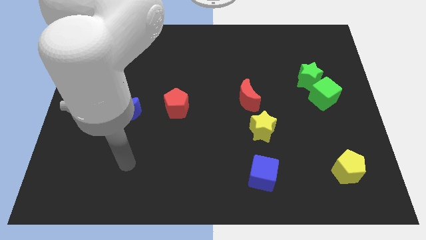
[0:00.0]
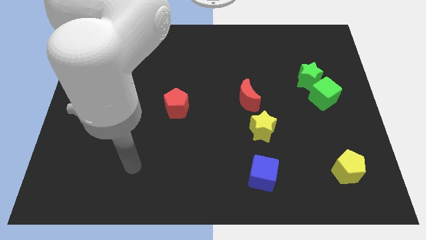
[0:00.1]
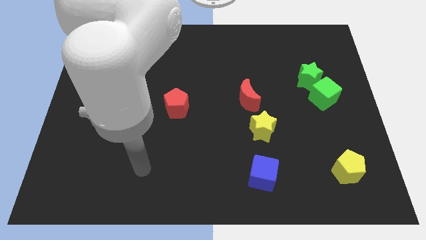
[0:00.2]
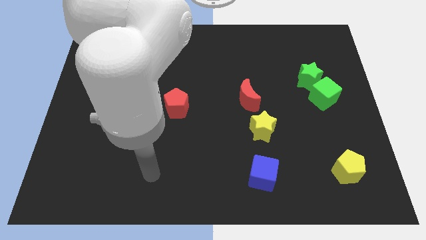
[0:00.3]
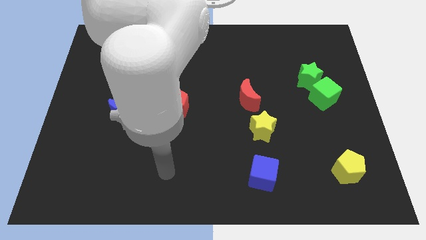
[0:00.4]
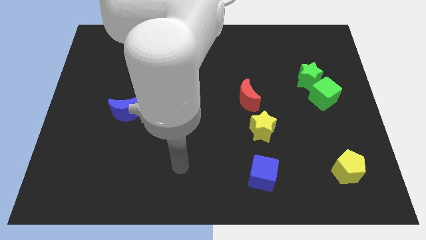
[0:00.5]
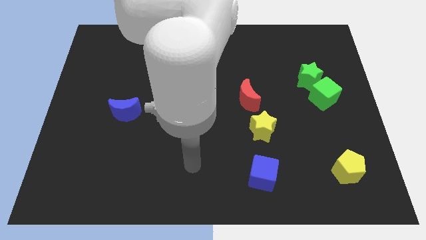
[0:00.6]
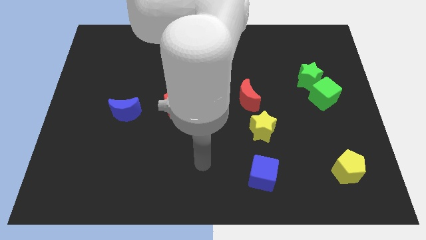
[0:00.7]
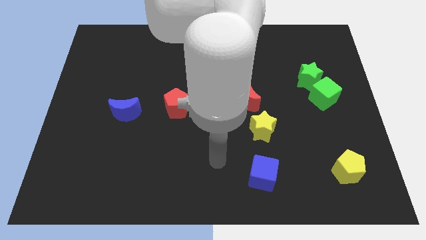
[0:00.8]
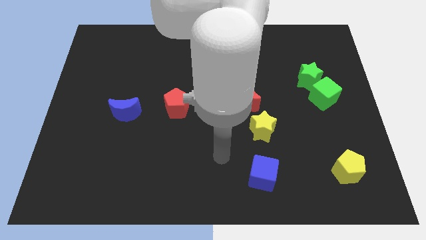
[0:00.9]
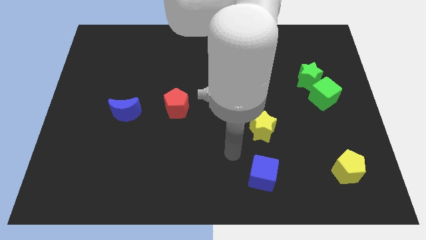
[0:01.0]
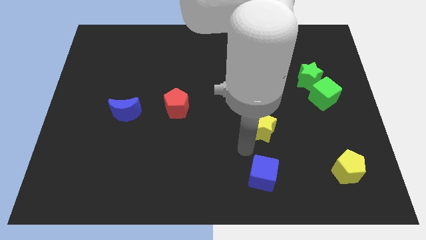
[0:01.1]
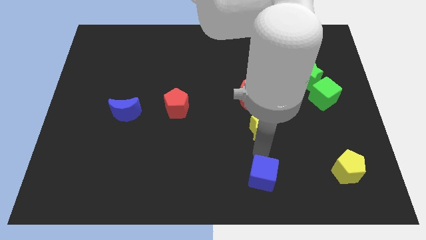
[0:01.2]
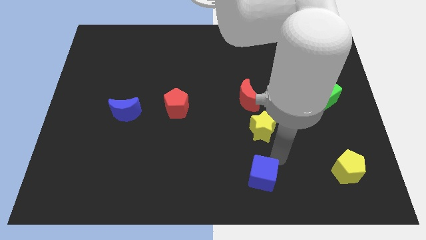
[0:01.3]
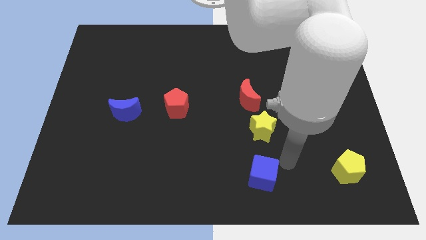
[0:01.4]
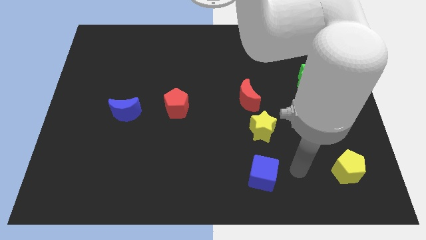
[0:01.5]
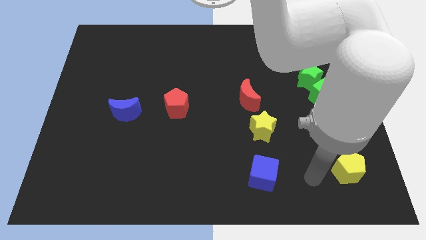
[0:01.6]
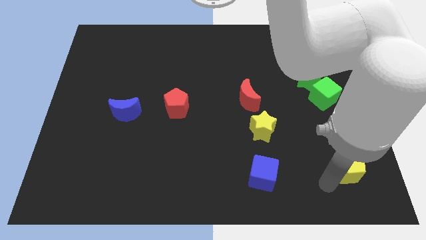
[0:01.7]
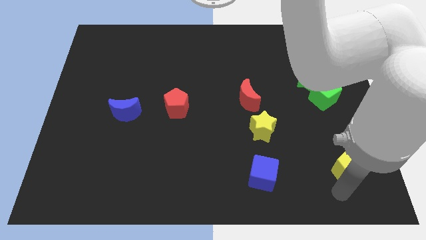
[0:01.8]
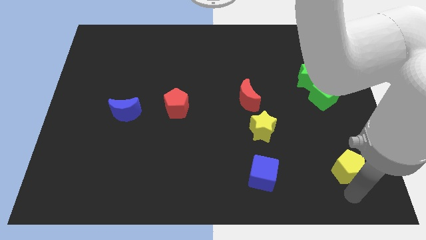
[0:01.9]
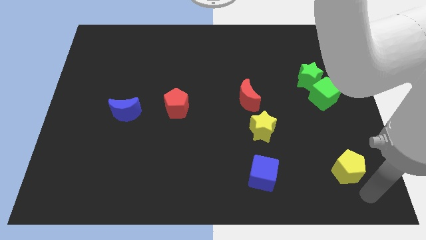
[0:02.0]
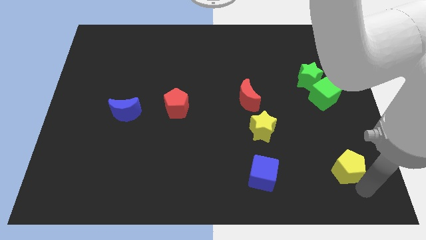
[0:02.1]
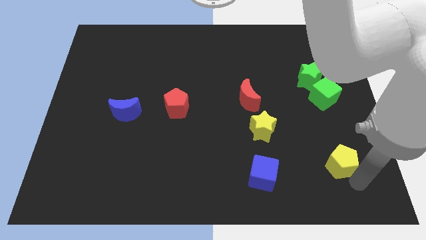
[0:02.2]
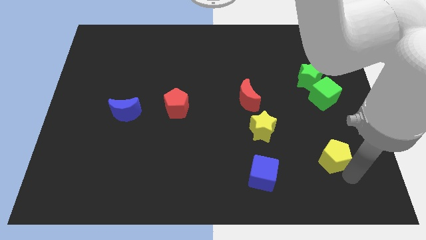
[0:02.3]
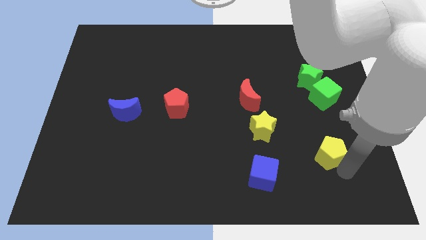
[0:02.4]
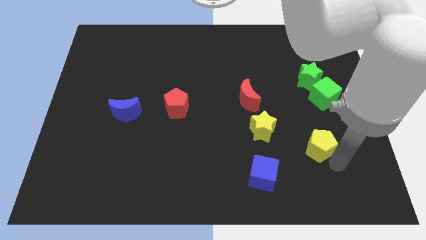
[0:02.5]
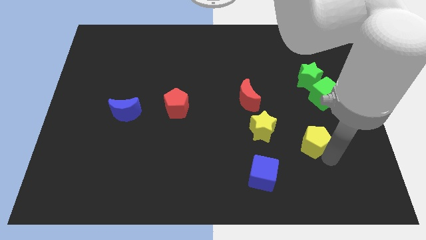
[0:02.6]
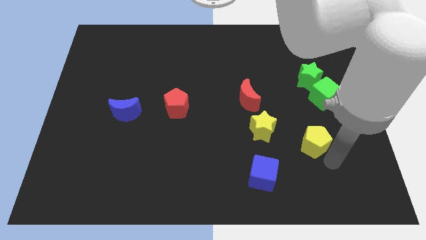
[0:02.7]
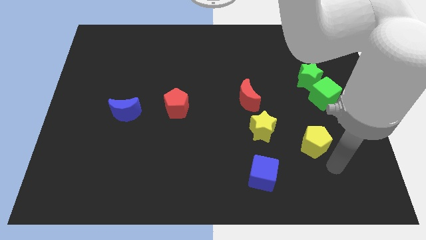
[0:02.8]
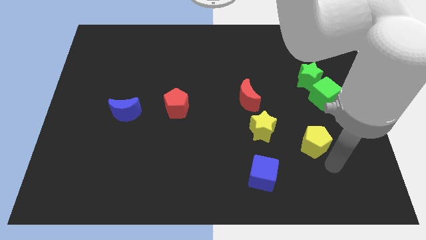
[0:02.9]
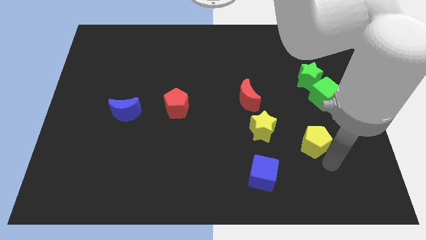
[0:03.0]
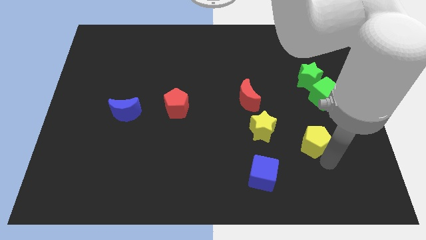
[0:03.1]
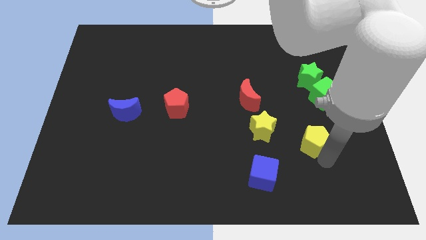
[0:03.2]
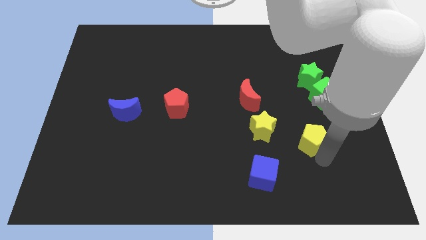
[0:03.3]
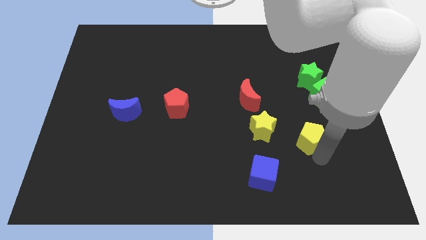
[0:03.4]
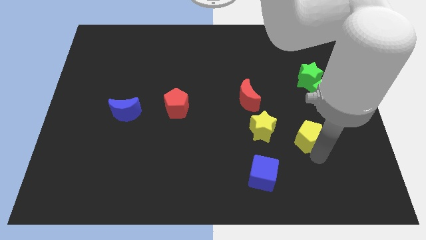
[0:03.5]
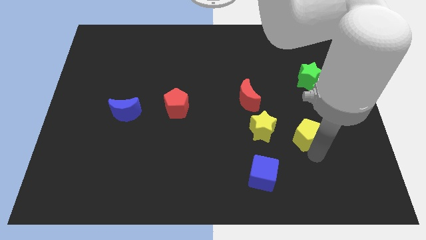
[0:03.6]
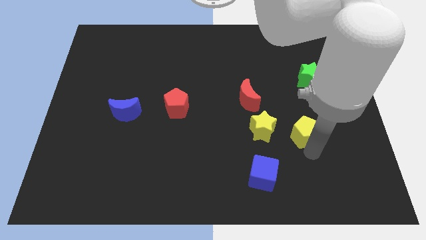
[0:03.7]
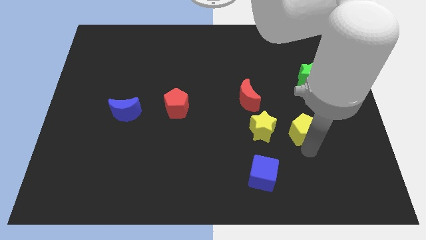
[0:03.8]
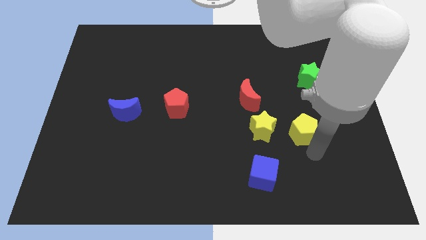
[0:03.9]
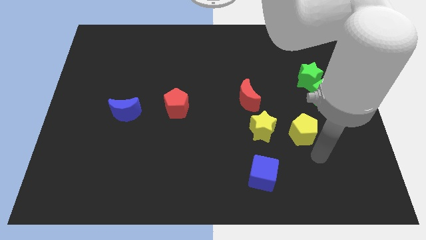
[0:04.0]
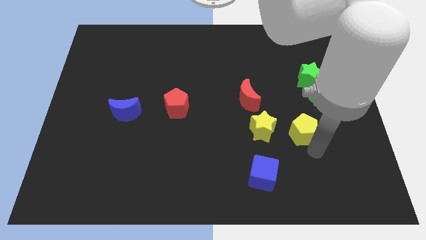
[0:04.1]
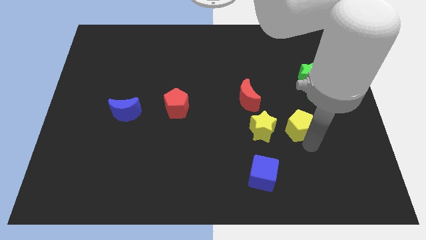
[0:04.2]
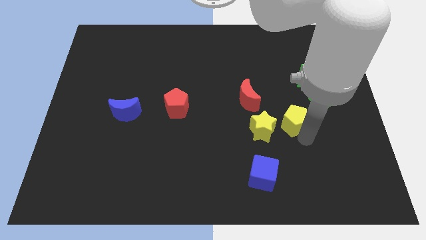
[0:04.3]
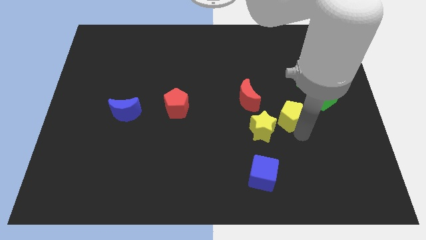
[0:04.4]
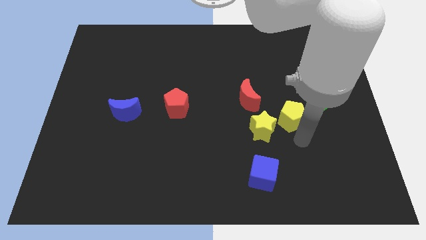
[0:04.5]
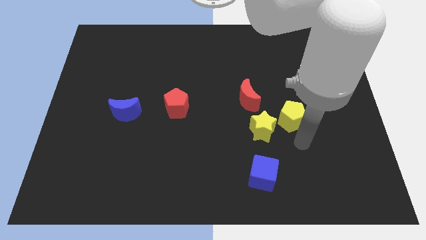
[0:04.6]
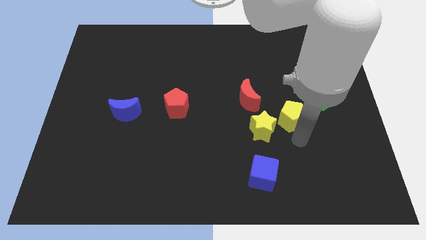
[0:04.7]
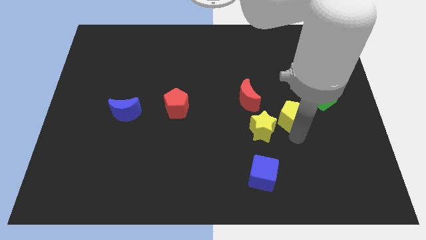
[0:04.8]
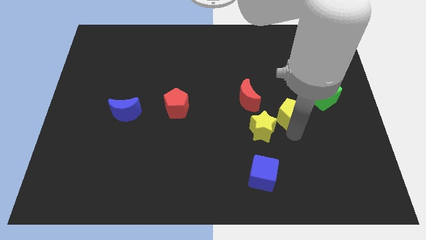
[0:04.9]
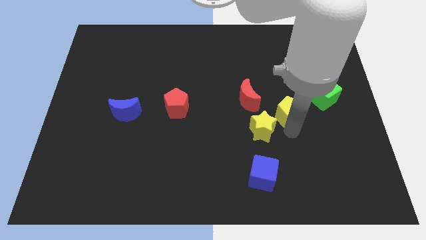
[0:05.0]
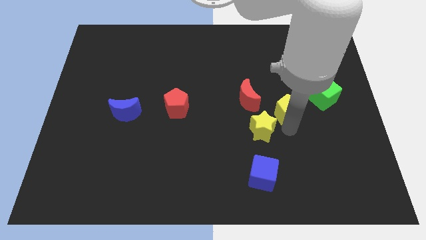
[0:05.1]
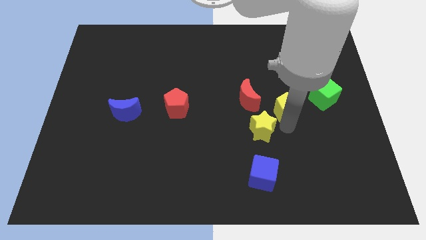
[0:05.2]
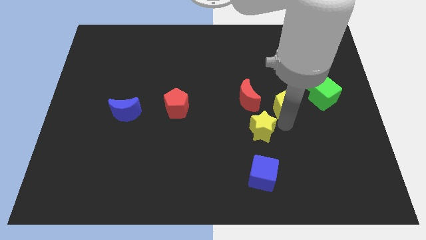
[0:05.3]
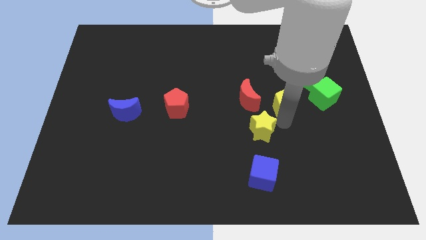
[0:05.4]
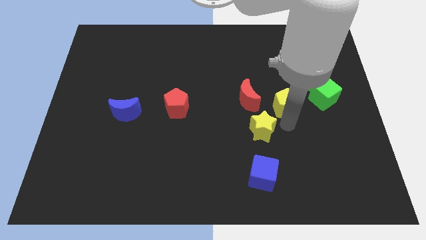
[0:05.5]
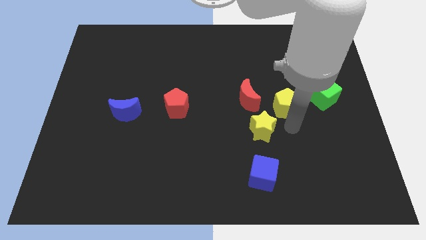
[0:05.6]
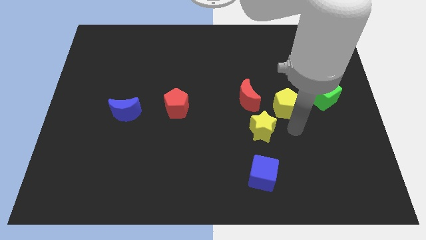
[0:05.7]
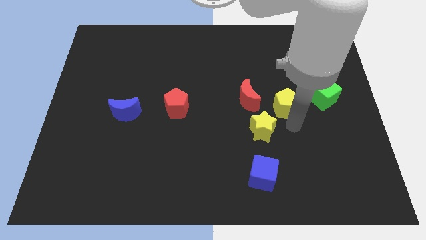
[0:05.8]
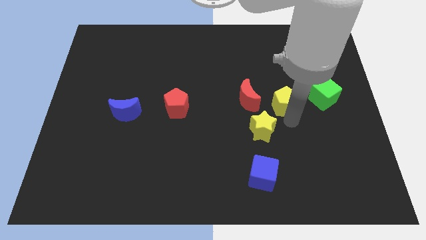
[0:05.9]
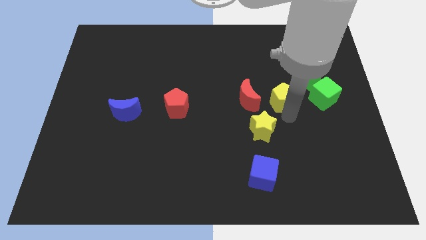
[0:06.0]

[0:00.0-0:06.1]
push the yellow pentagon up and then to the left

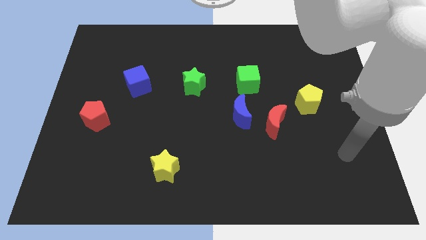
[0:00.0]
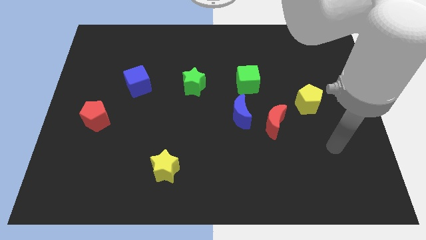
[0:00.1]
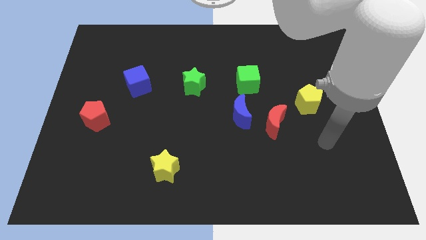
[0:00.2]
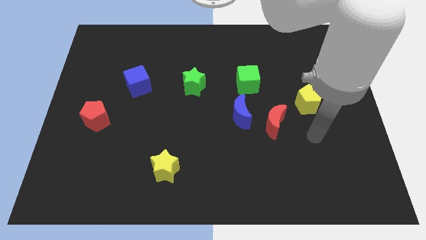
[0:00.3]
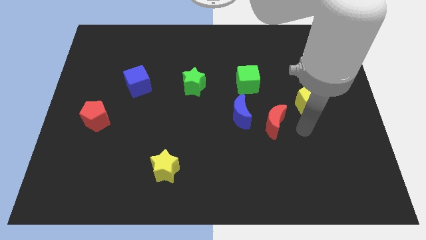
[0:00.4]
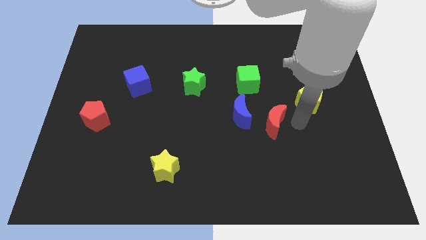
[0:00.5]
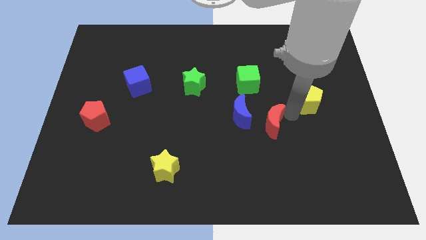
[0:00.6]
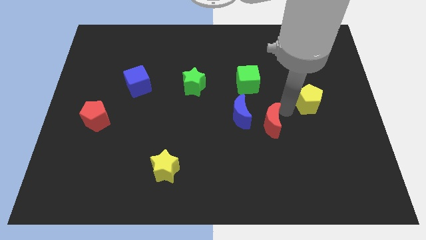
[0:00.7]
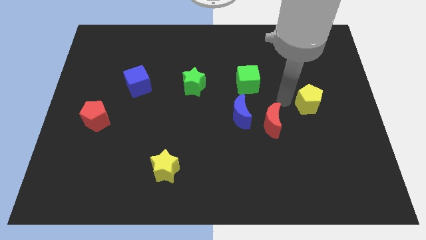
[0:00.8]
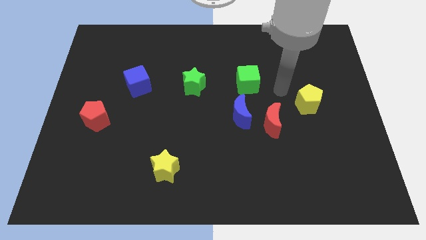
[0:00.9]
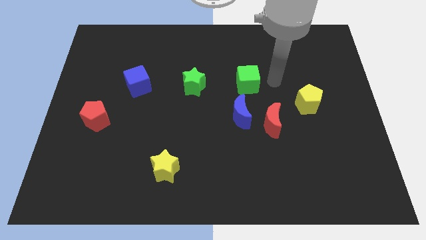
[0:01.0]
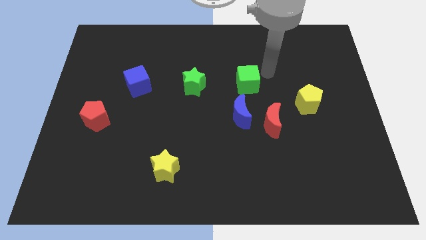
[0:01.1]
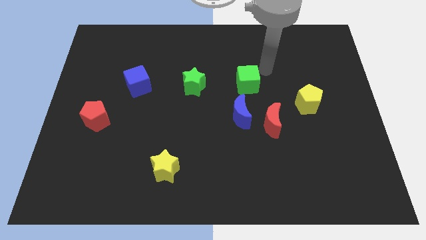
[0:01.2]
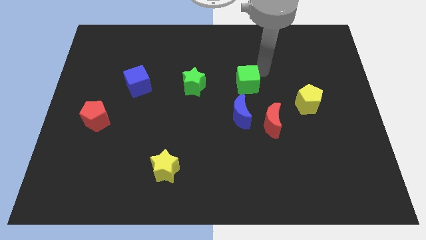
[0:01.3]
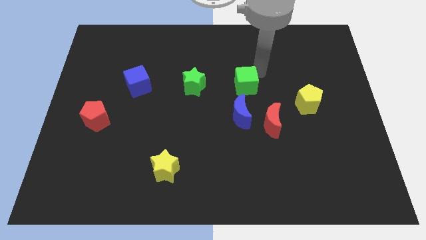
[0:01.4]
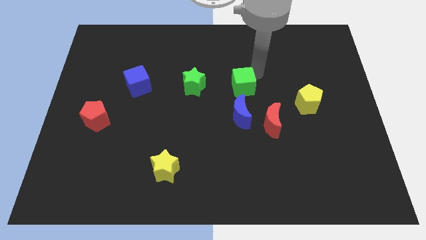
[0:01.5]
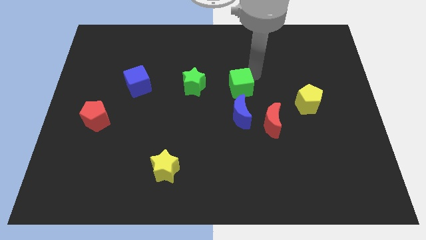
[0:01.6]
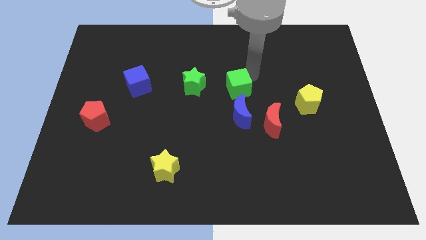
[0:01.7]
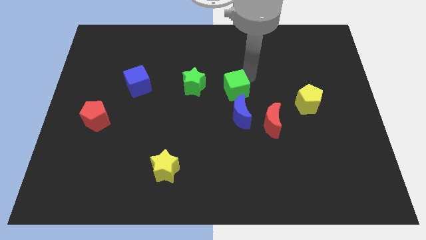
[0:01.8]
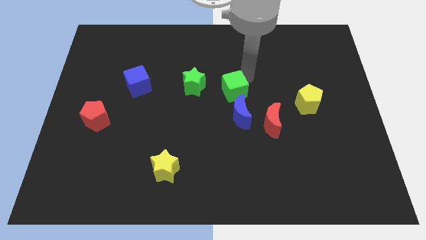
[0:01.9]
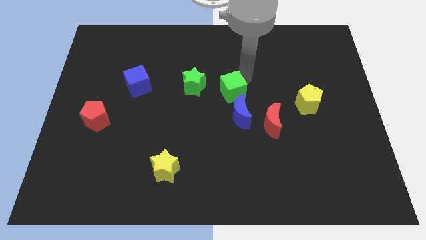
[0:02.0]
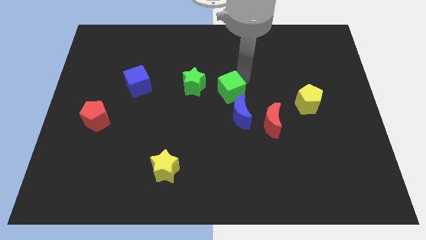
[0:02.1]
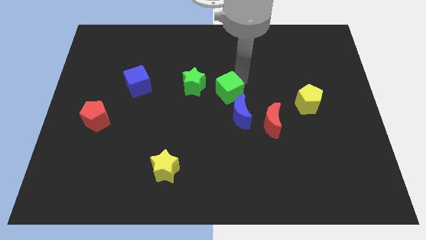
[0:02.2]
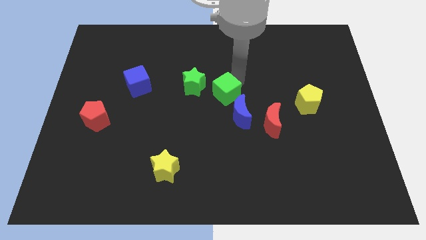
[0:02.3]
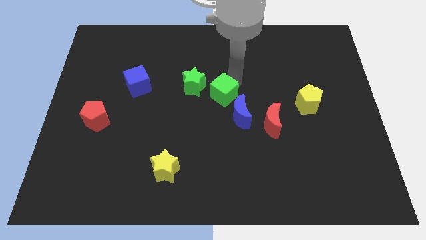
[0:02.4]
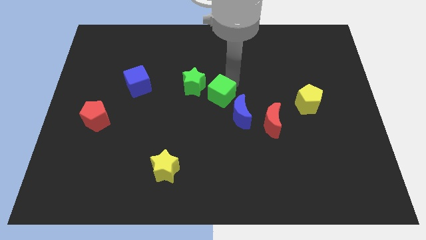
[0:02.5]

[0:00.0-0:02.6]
slightly push the green cube downwards and left
